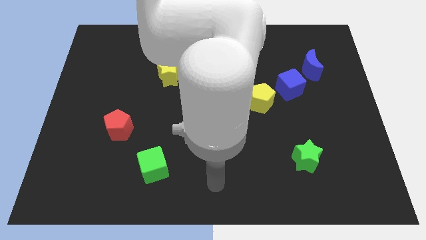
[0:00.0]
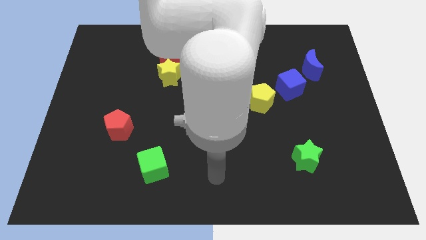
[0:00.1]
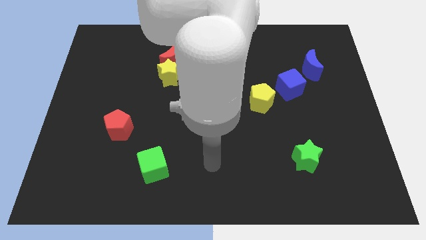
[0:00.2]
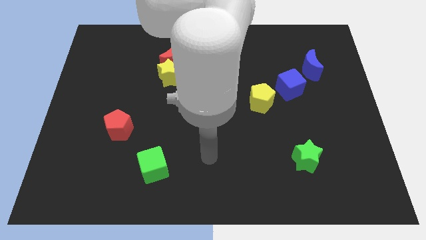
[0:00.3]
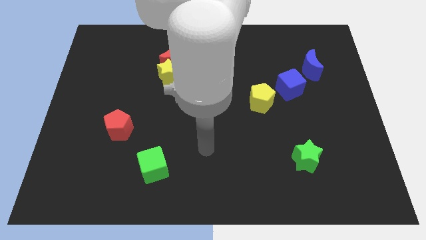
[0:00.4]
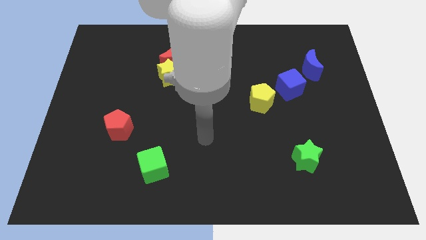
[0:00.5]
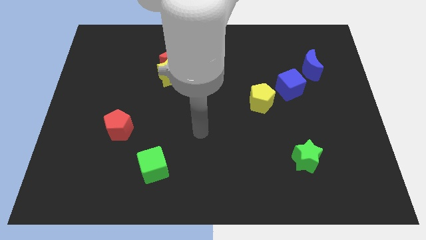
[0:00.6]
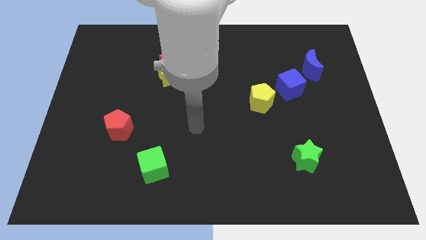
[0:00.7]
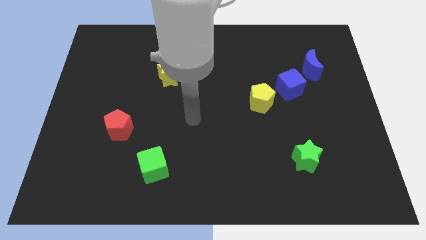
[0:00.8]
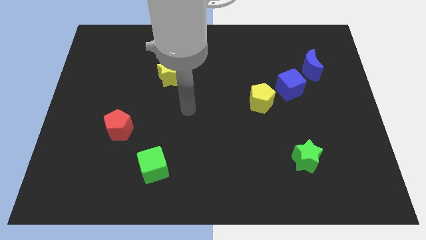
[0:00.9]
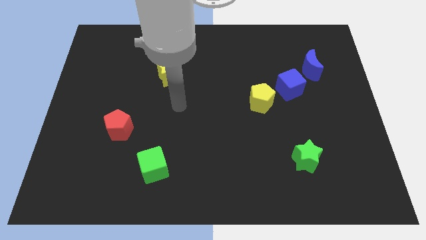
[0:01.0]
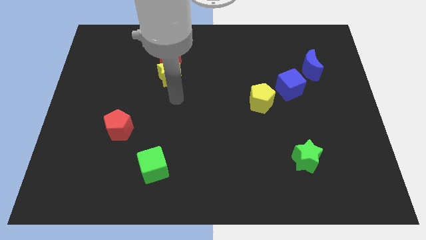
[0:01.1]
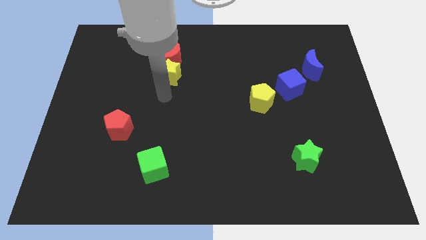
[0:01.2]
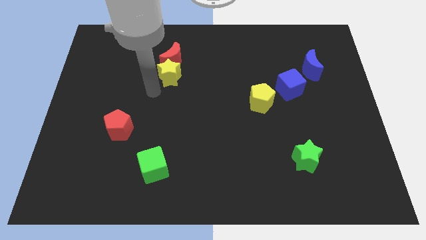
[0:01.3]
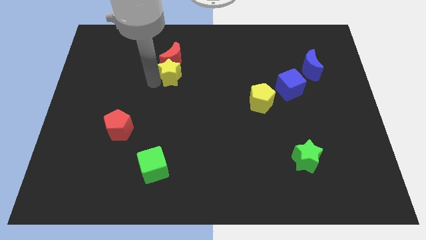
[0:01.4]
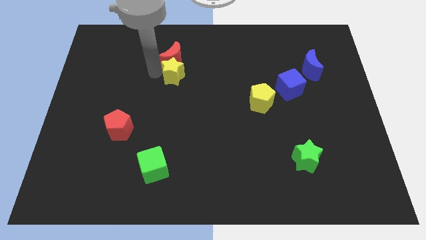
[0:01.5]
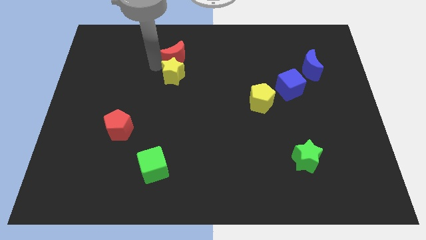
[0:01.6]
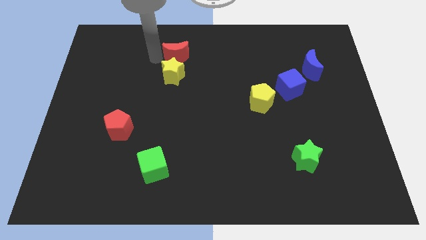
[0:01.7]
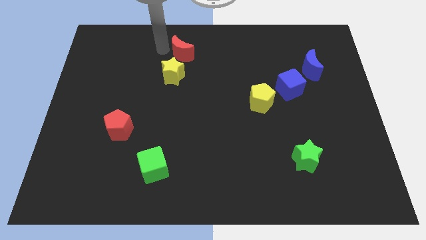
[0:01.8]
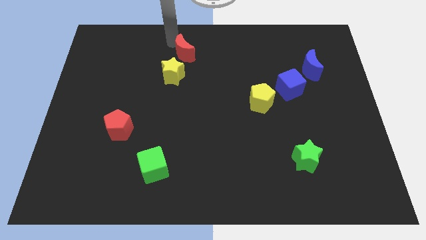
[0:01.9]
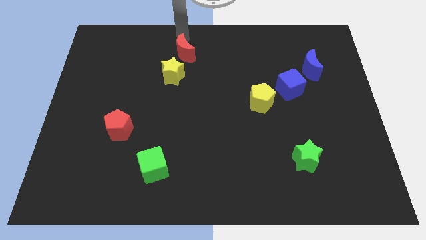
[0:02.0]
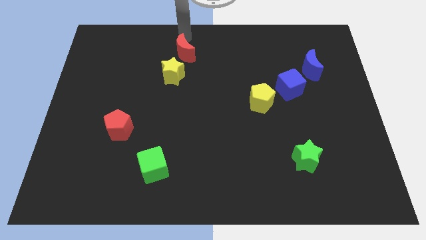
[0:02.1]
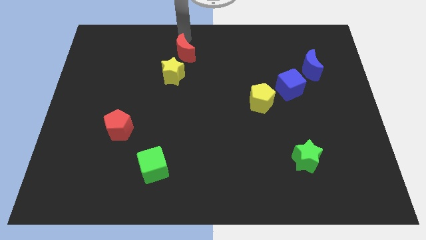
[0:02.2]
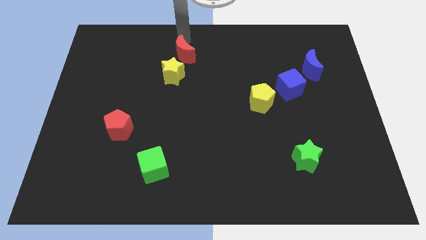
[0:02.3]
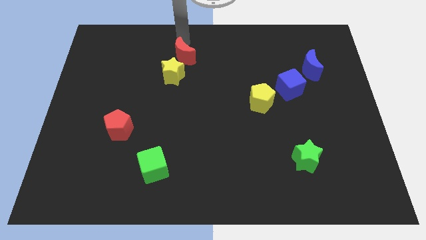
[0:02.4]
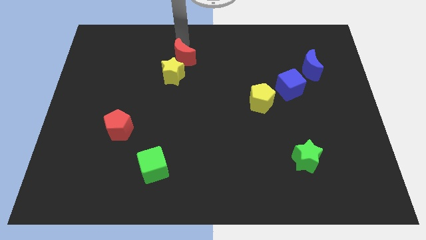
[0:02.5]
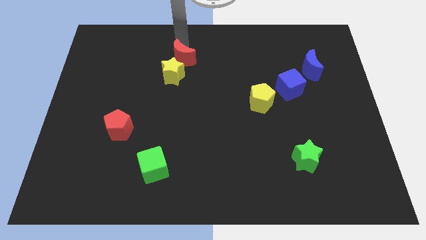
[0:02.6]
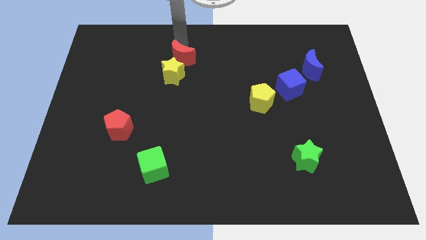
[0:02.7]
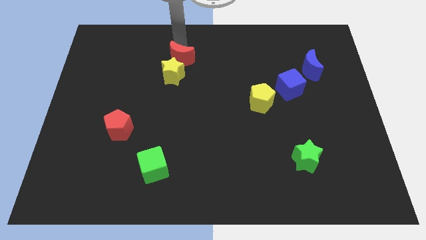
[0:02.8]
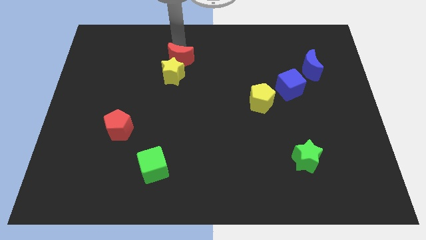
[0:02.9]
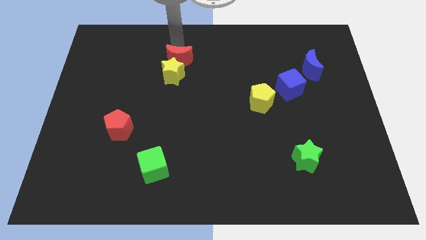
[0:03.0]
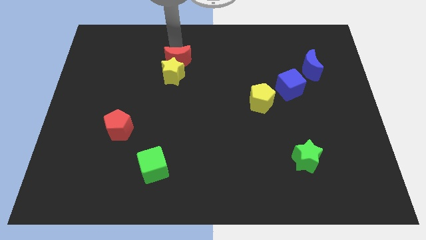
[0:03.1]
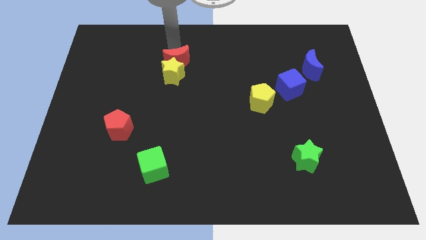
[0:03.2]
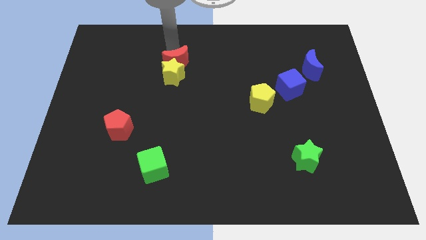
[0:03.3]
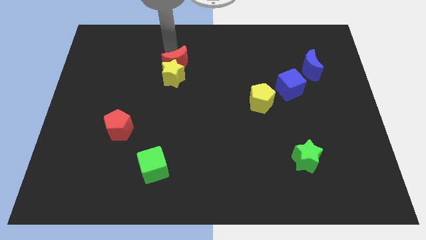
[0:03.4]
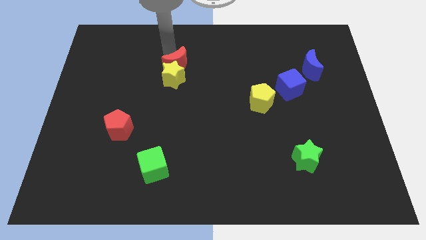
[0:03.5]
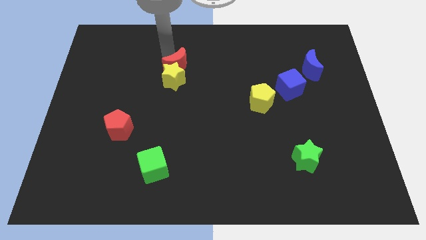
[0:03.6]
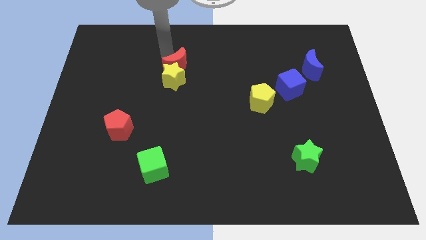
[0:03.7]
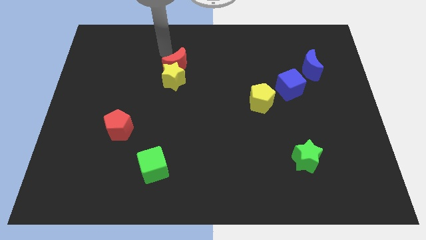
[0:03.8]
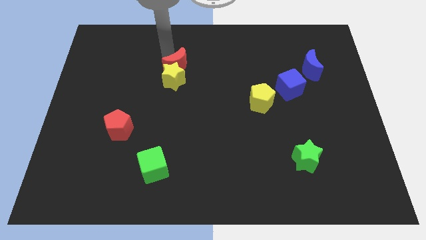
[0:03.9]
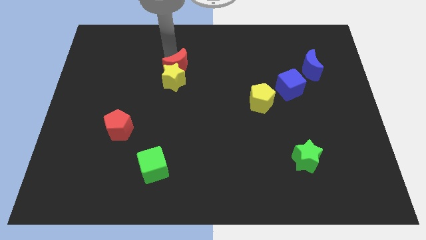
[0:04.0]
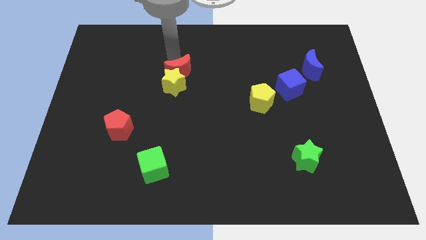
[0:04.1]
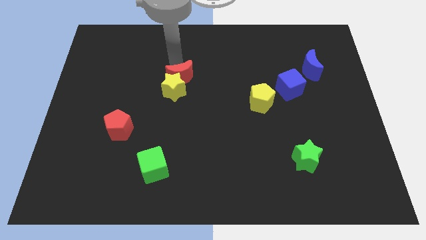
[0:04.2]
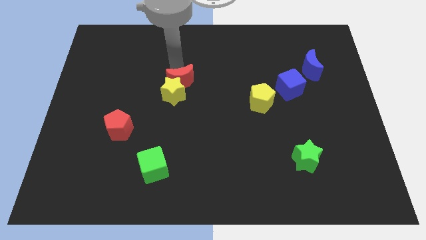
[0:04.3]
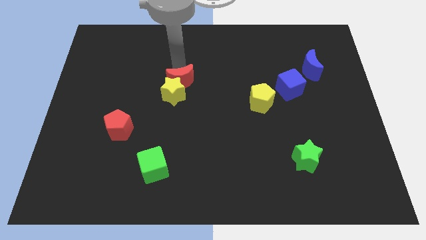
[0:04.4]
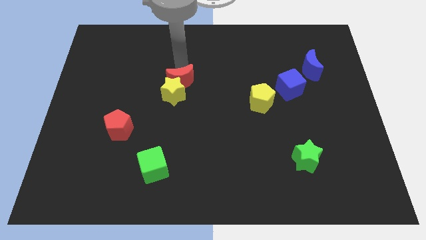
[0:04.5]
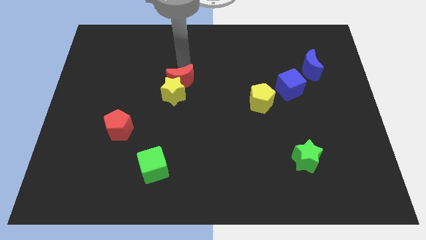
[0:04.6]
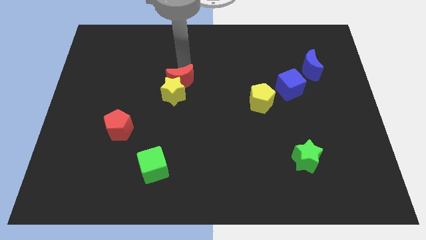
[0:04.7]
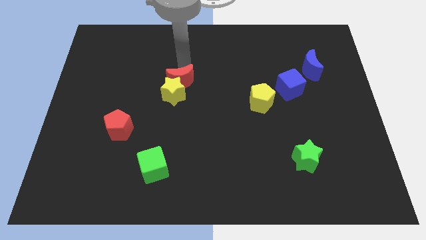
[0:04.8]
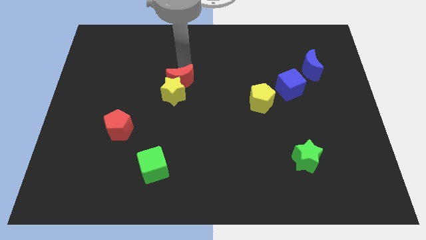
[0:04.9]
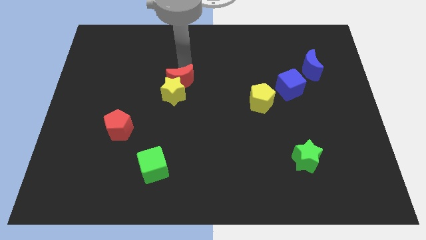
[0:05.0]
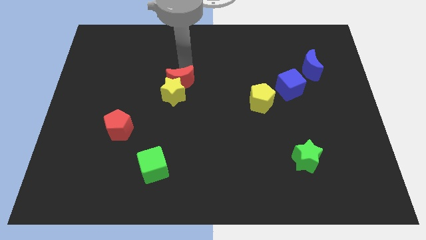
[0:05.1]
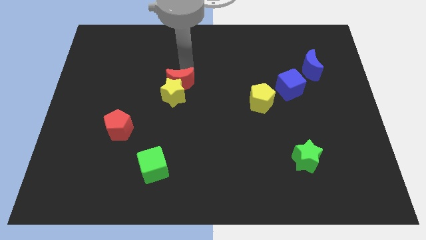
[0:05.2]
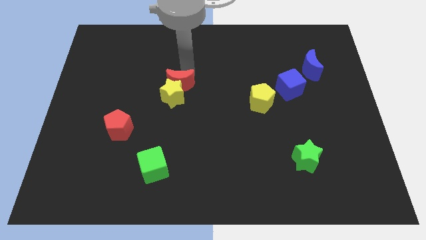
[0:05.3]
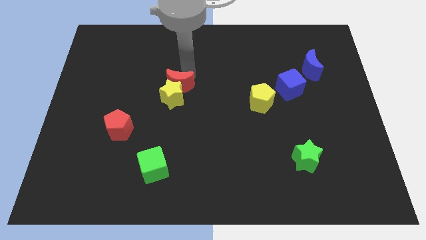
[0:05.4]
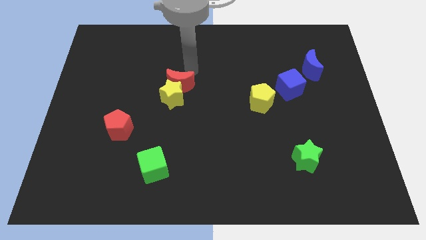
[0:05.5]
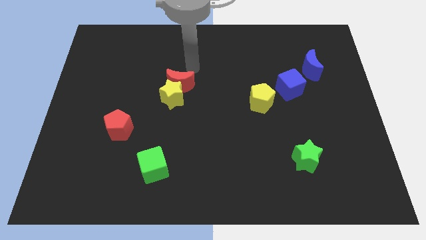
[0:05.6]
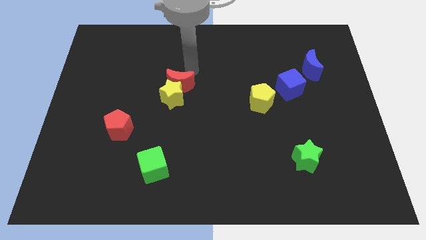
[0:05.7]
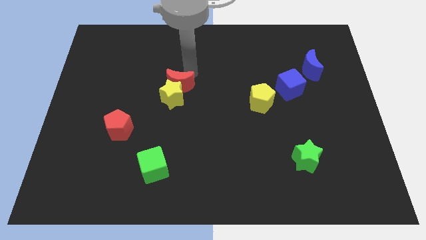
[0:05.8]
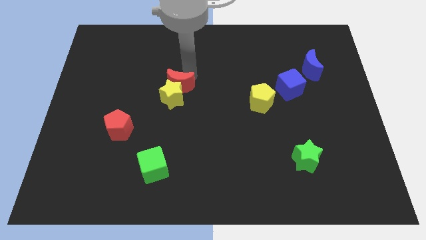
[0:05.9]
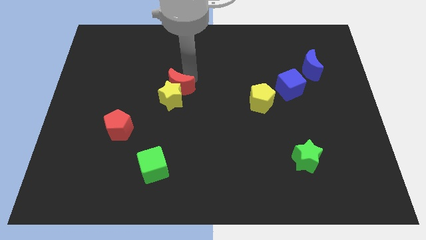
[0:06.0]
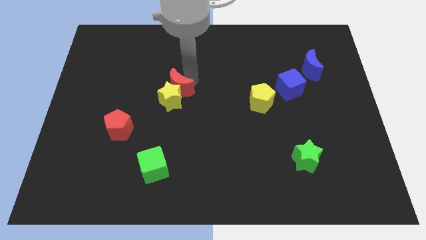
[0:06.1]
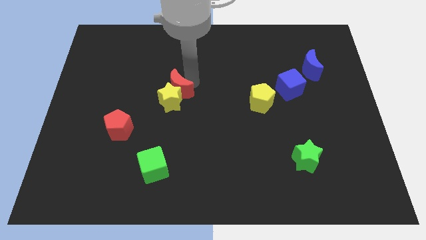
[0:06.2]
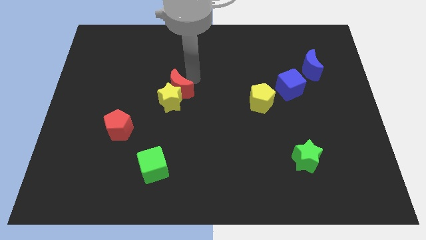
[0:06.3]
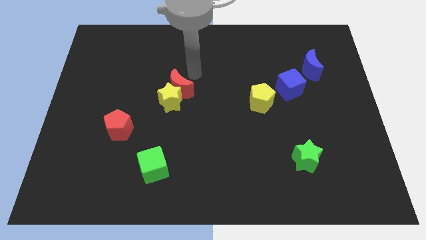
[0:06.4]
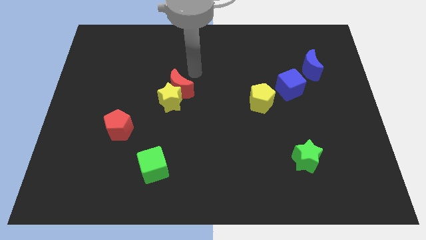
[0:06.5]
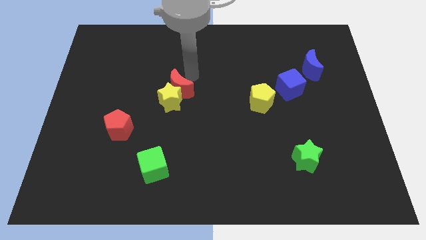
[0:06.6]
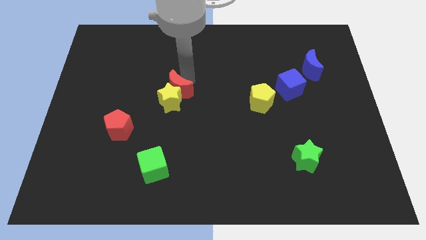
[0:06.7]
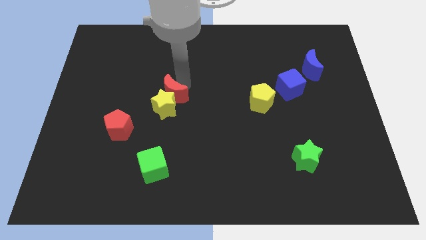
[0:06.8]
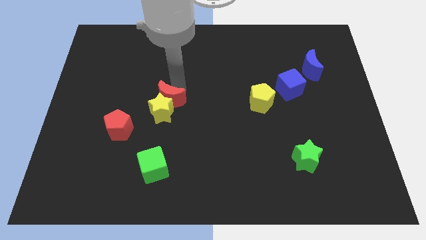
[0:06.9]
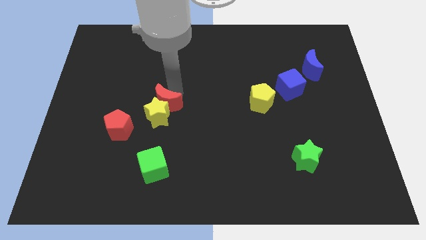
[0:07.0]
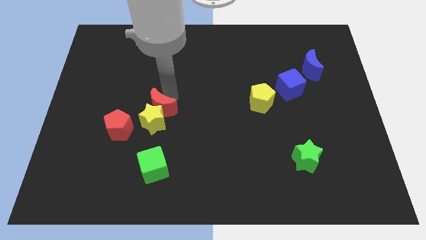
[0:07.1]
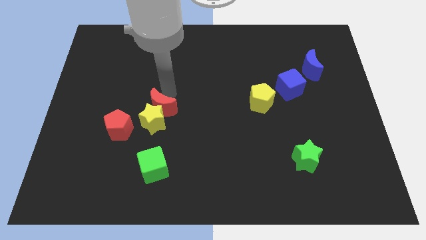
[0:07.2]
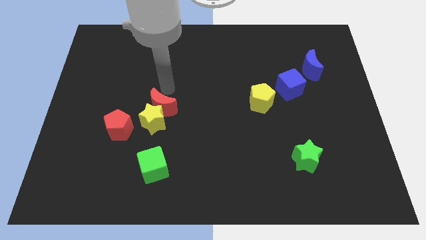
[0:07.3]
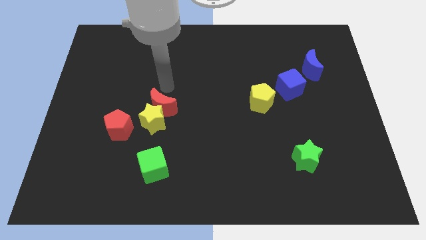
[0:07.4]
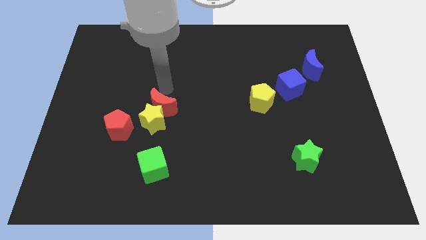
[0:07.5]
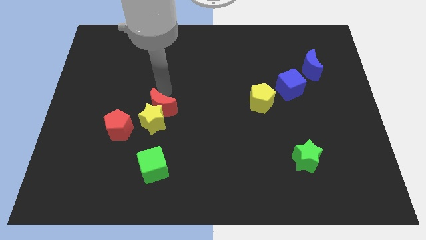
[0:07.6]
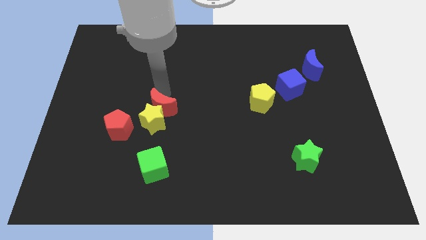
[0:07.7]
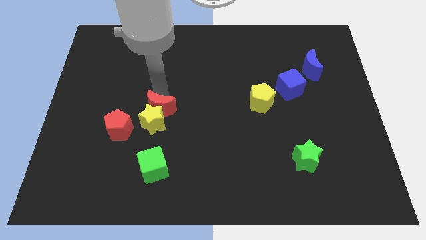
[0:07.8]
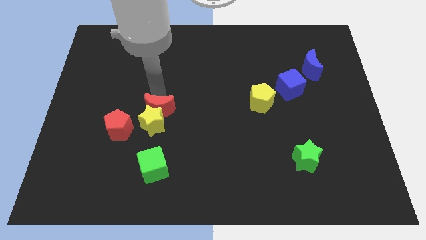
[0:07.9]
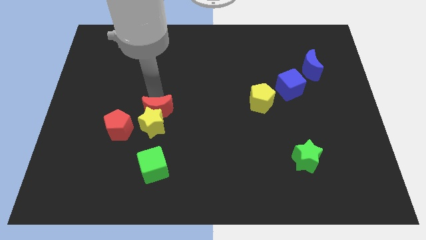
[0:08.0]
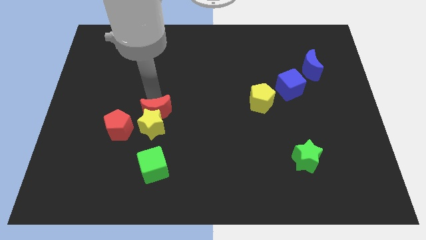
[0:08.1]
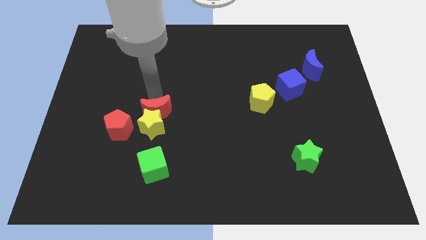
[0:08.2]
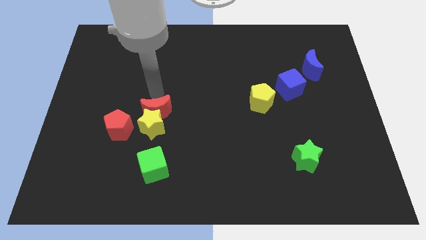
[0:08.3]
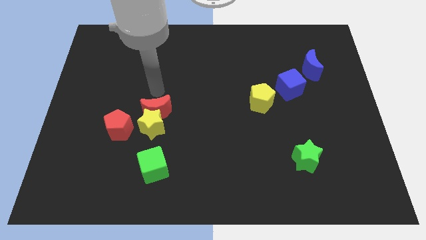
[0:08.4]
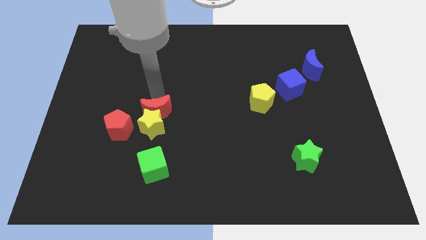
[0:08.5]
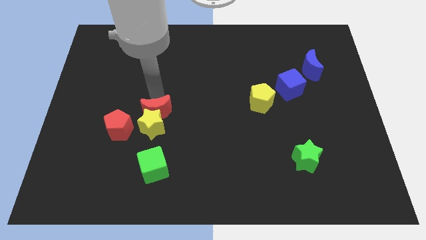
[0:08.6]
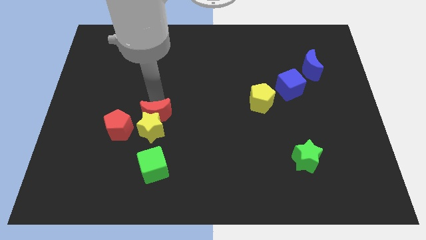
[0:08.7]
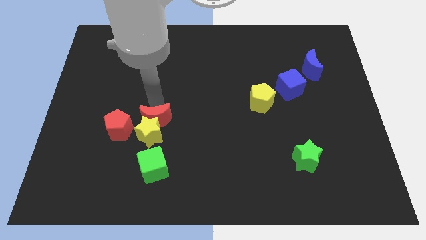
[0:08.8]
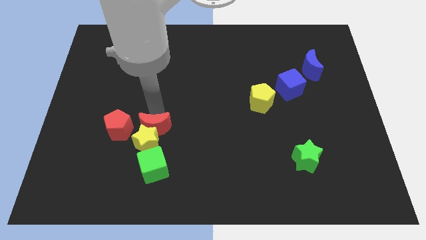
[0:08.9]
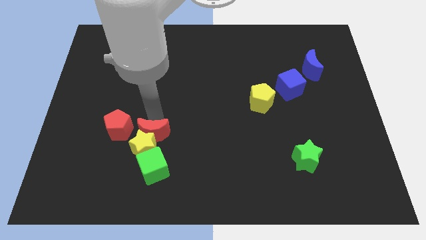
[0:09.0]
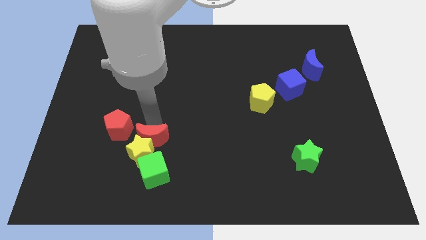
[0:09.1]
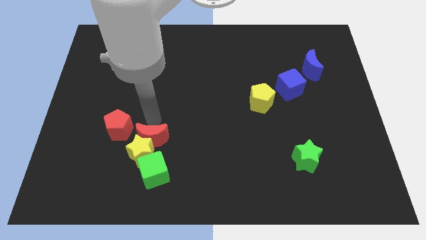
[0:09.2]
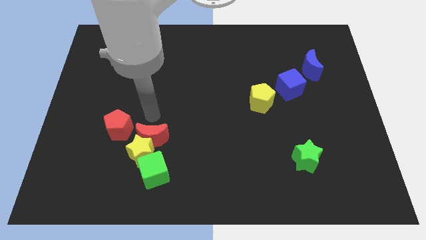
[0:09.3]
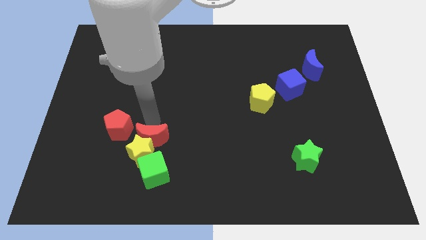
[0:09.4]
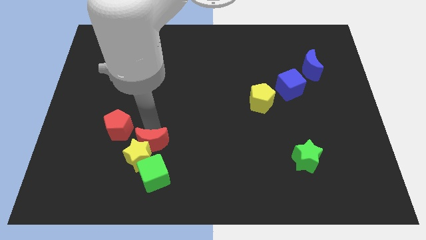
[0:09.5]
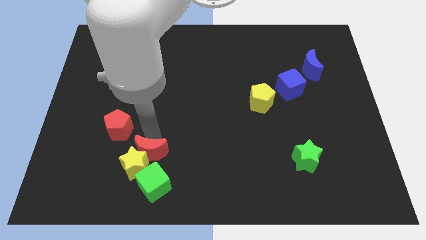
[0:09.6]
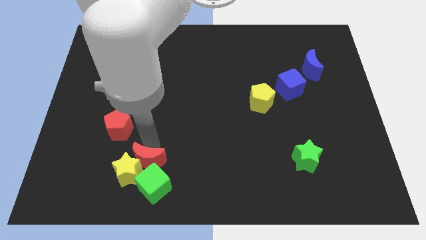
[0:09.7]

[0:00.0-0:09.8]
put the red moon towards the green cube
